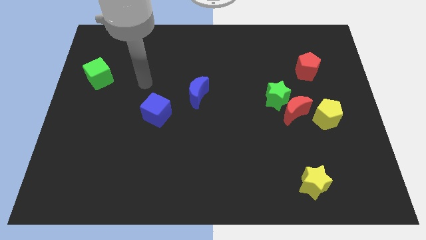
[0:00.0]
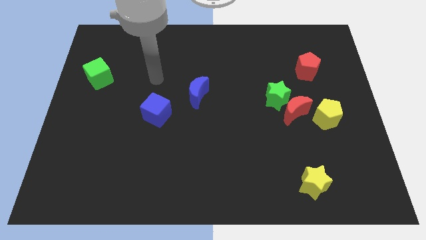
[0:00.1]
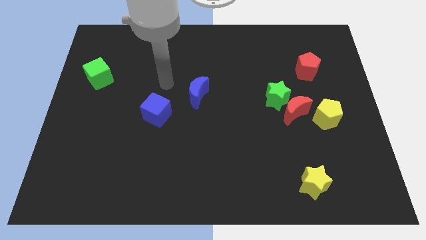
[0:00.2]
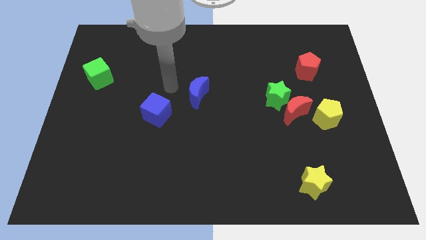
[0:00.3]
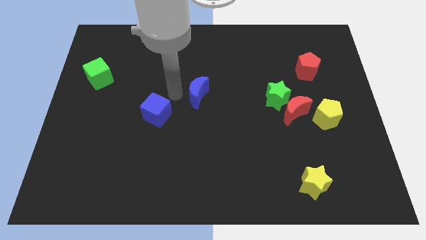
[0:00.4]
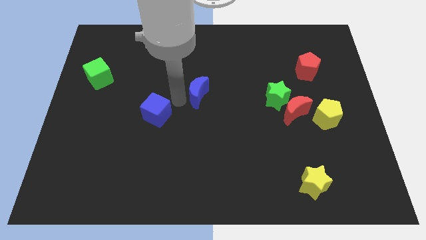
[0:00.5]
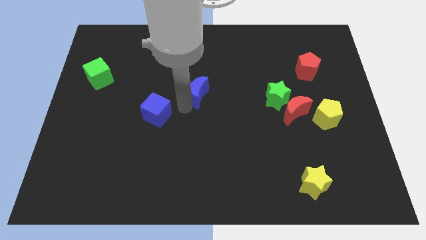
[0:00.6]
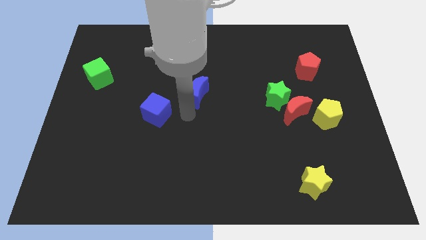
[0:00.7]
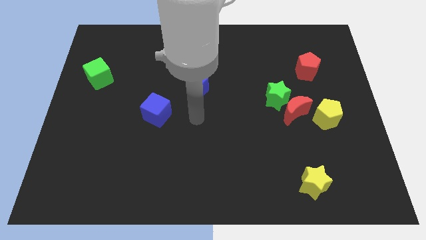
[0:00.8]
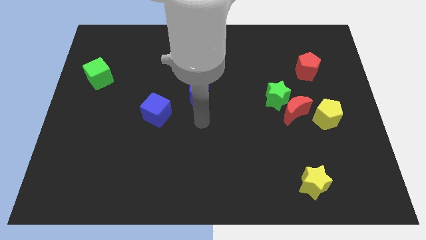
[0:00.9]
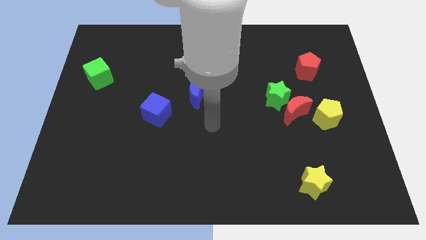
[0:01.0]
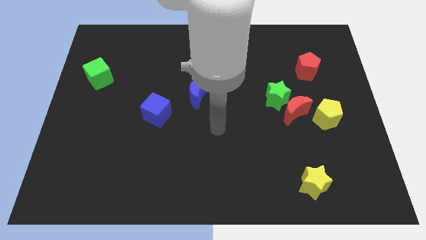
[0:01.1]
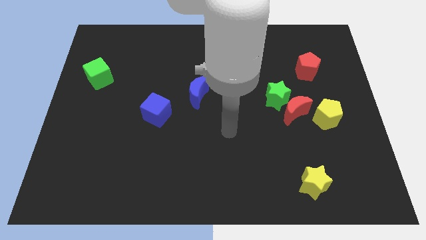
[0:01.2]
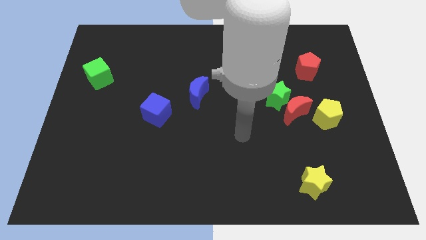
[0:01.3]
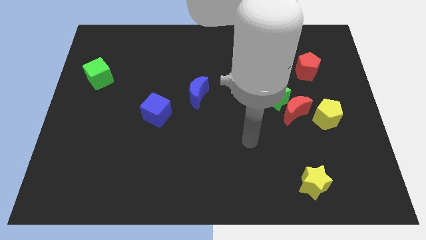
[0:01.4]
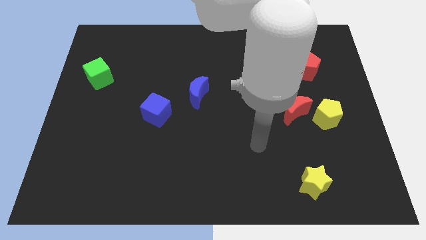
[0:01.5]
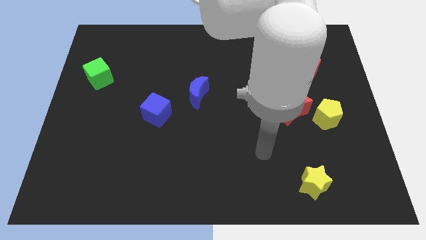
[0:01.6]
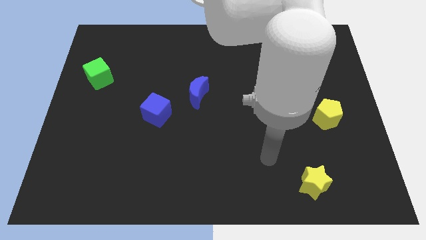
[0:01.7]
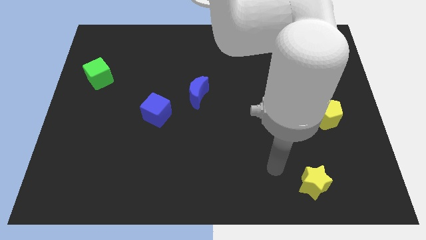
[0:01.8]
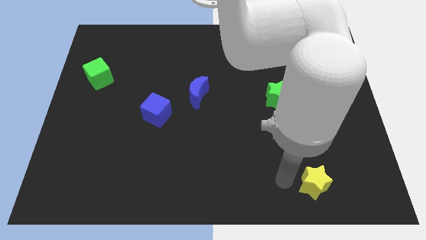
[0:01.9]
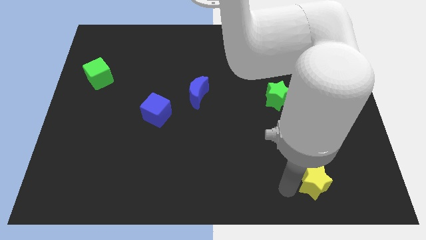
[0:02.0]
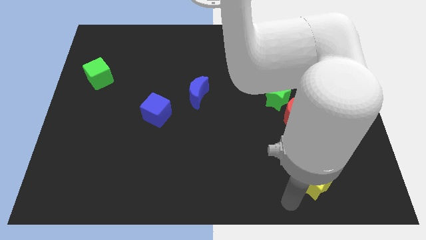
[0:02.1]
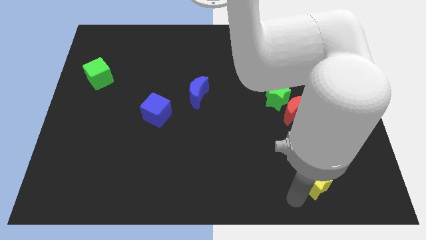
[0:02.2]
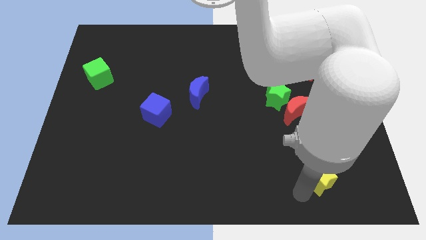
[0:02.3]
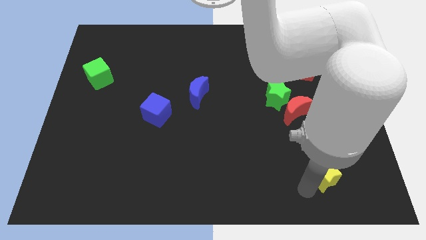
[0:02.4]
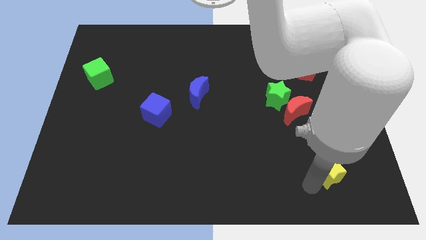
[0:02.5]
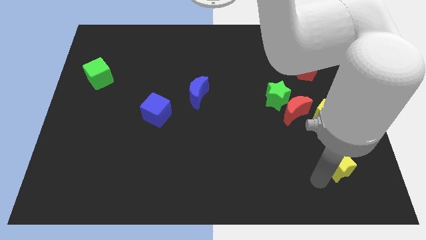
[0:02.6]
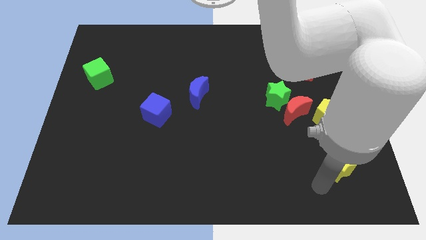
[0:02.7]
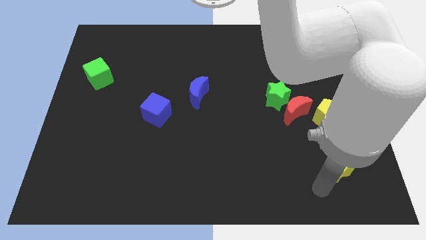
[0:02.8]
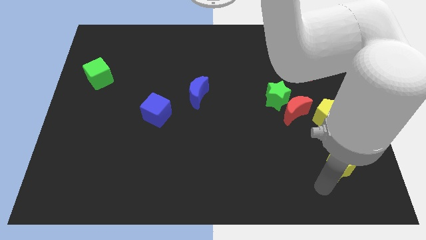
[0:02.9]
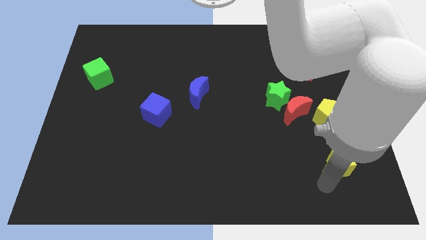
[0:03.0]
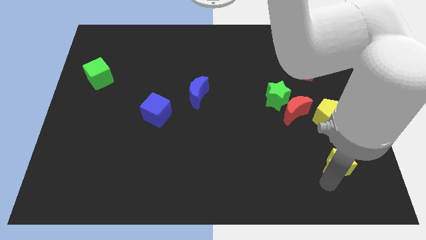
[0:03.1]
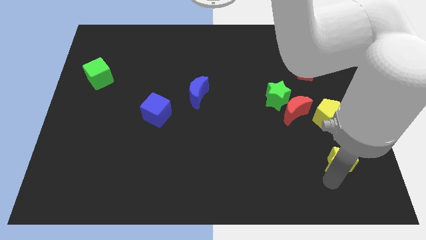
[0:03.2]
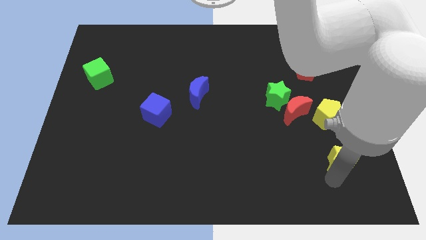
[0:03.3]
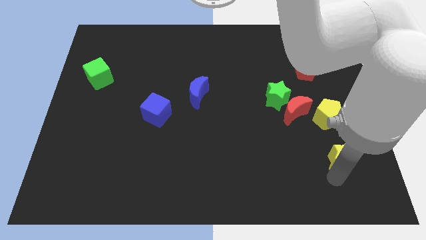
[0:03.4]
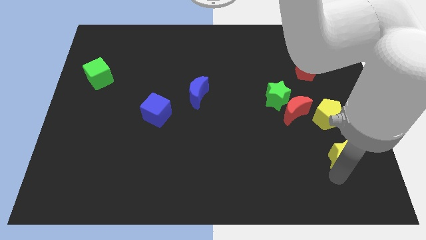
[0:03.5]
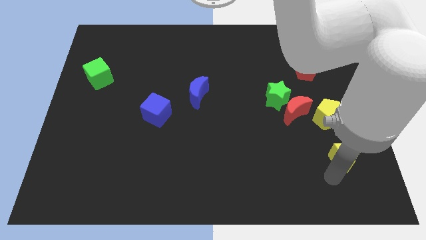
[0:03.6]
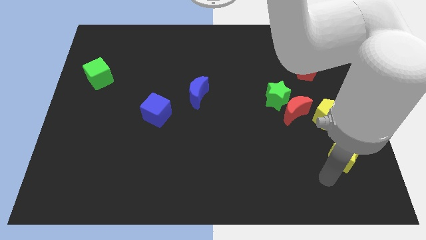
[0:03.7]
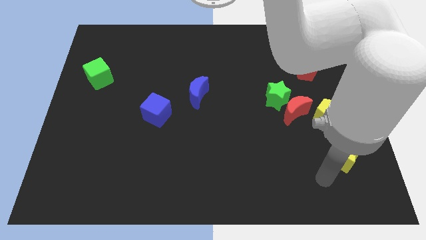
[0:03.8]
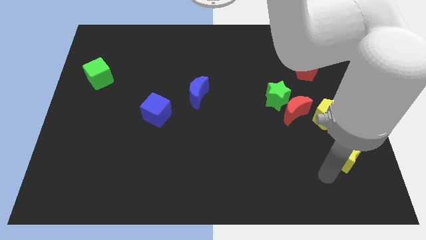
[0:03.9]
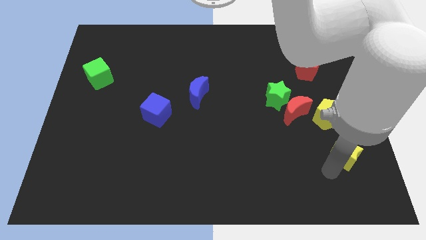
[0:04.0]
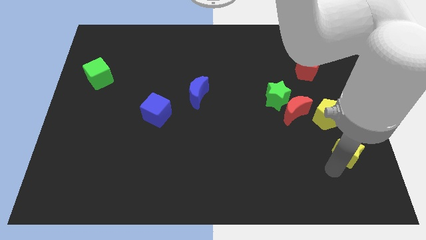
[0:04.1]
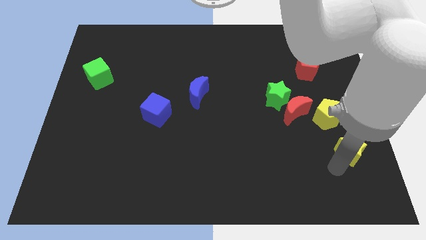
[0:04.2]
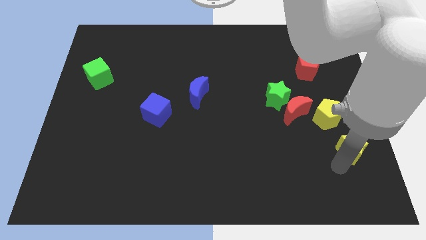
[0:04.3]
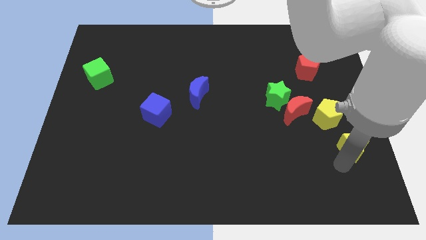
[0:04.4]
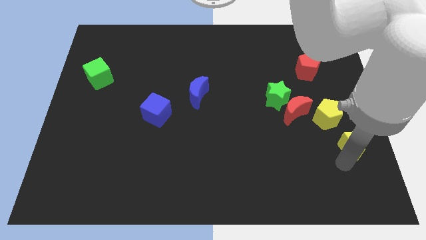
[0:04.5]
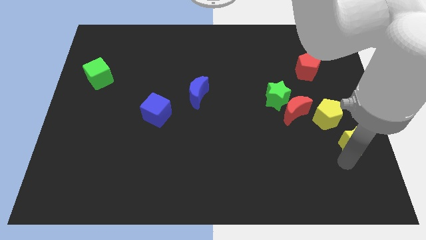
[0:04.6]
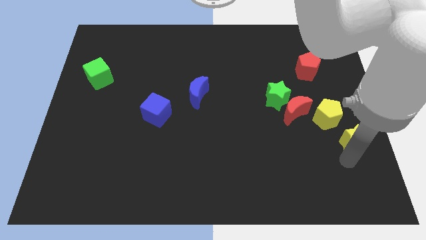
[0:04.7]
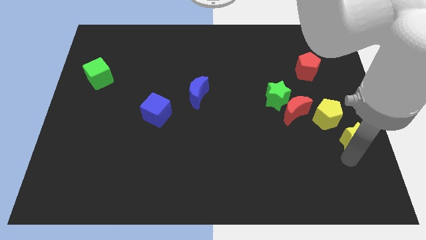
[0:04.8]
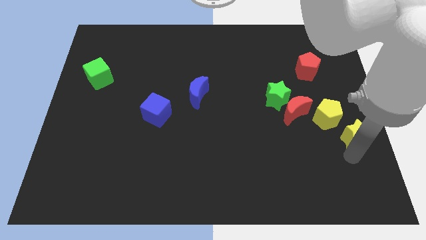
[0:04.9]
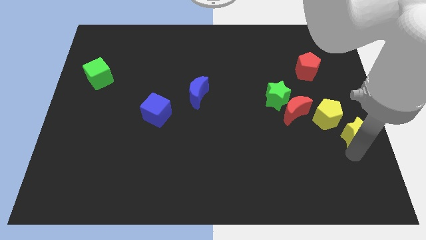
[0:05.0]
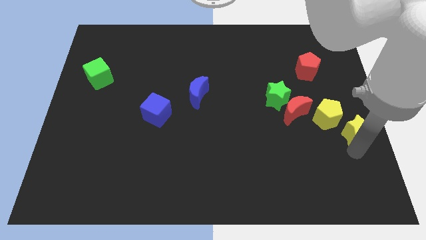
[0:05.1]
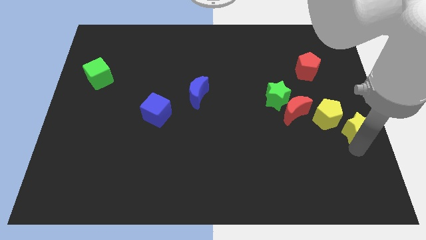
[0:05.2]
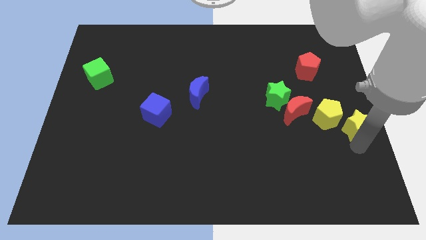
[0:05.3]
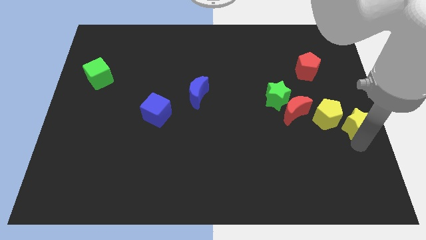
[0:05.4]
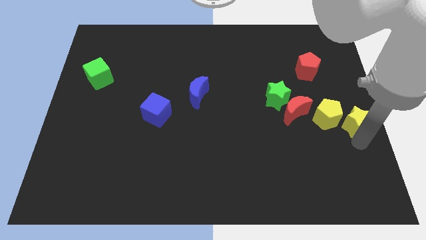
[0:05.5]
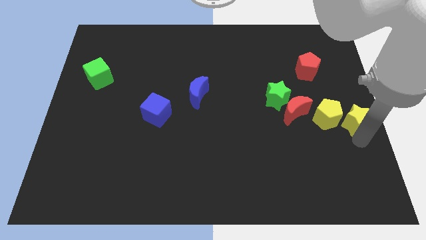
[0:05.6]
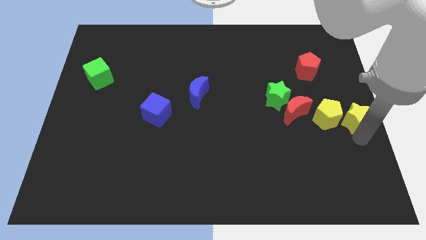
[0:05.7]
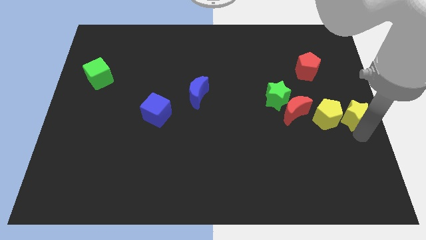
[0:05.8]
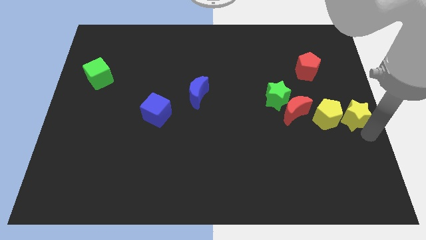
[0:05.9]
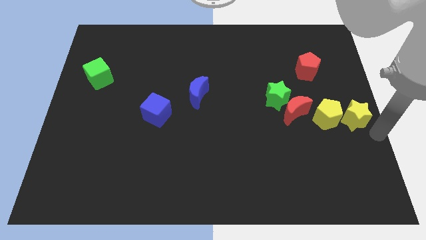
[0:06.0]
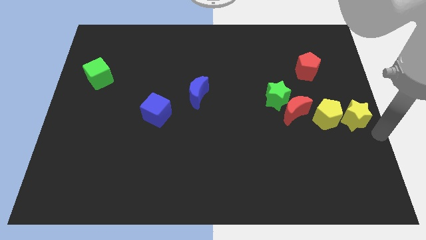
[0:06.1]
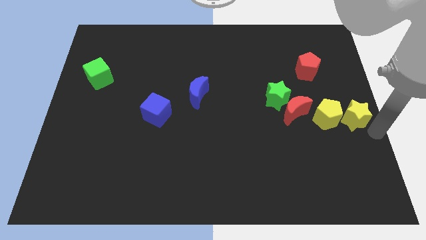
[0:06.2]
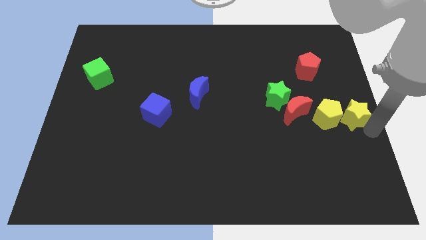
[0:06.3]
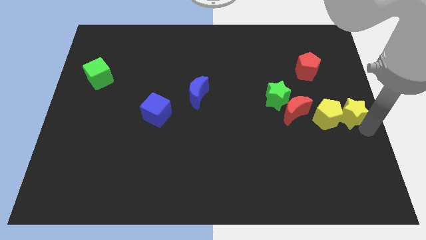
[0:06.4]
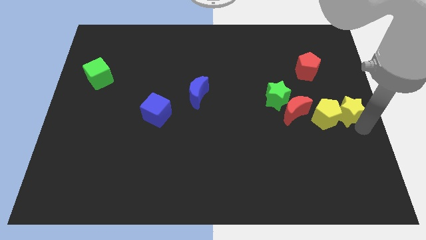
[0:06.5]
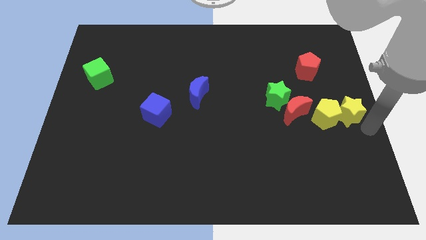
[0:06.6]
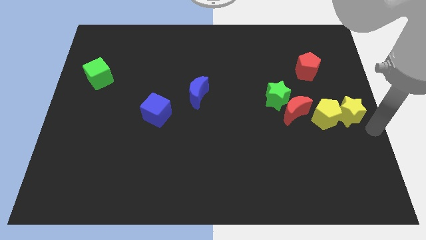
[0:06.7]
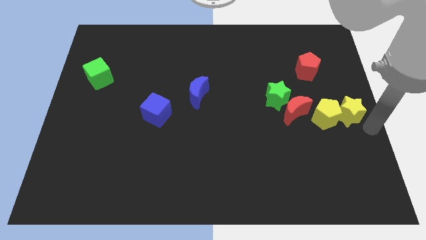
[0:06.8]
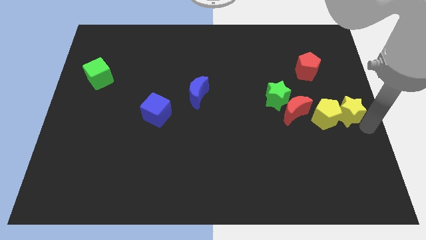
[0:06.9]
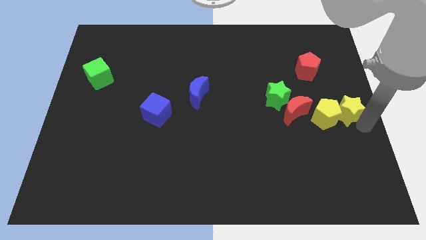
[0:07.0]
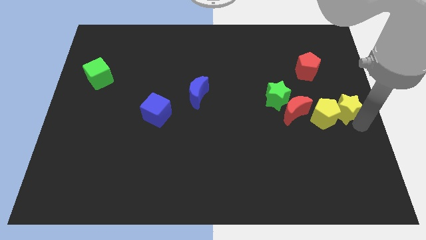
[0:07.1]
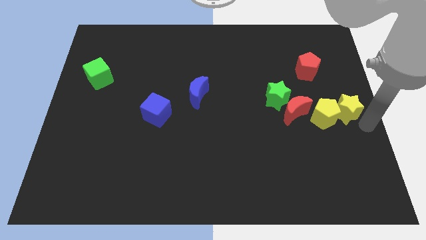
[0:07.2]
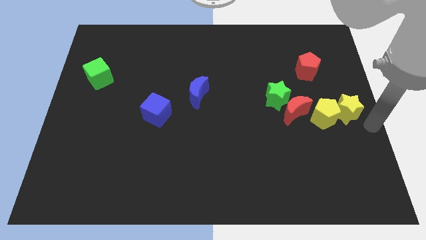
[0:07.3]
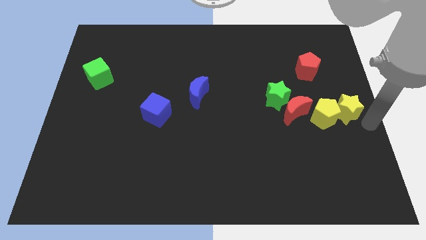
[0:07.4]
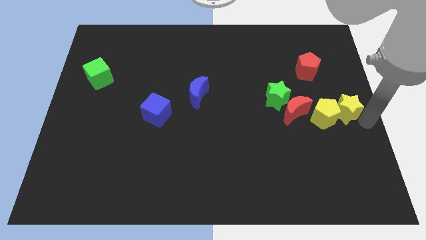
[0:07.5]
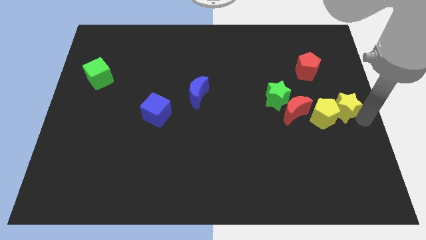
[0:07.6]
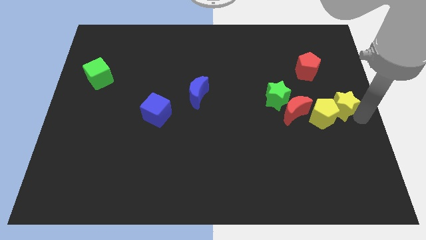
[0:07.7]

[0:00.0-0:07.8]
put the yellow star to the right side of the green star

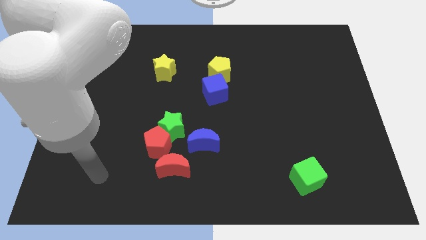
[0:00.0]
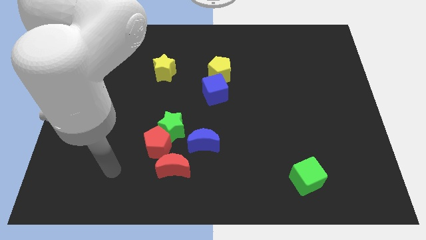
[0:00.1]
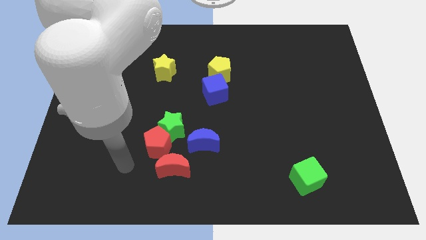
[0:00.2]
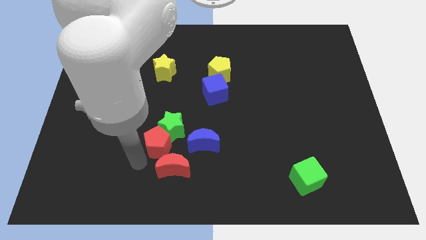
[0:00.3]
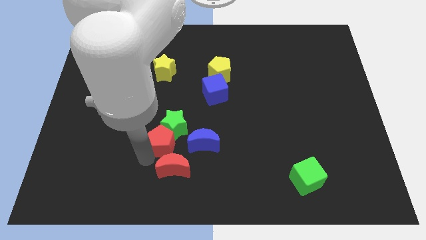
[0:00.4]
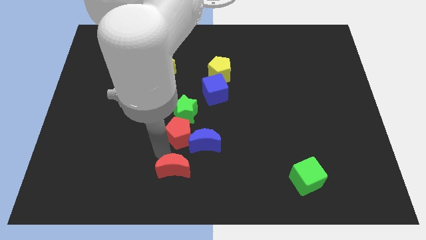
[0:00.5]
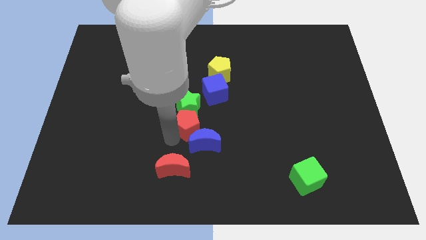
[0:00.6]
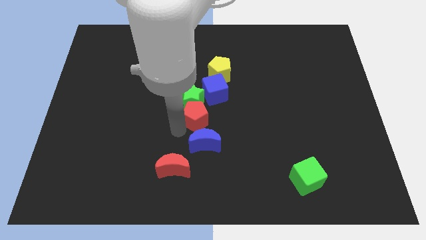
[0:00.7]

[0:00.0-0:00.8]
put the green star to the bottom left of the yellow pentagon
